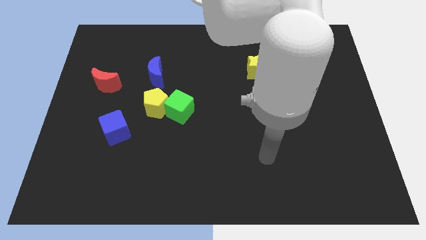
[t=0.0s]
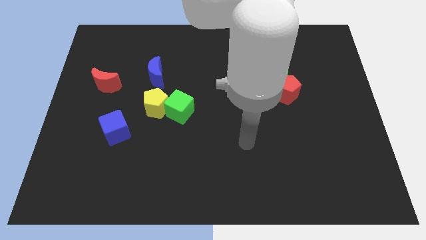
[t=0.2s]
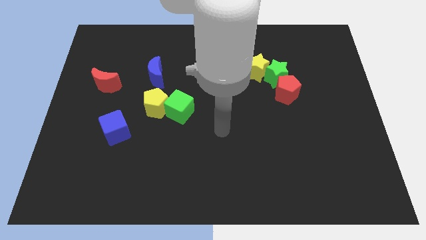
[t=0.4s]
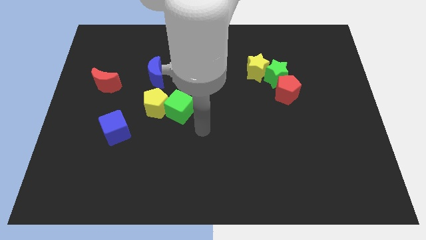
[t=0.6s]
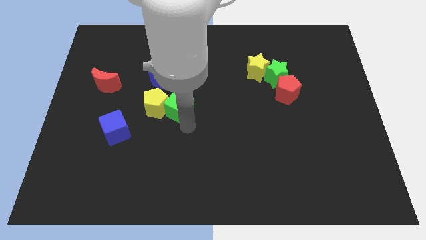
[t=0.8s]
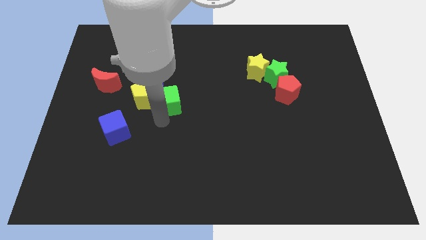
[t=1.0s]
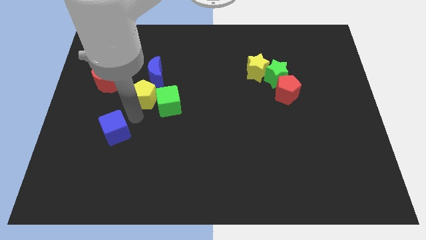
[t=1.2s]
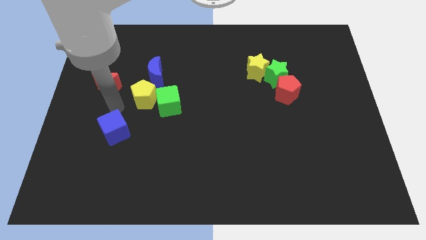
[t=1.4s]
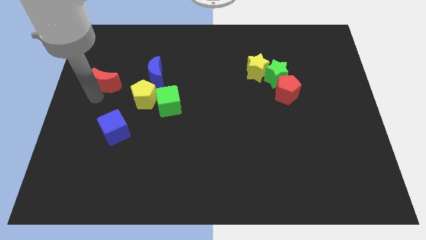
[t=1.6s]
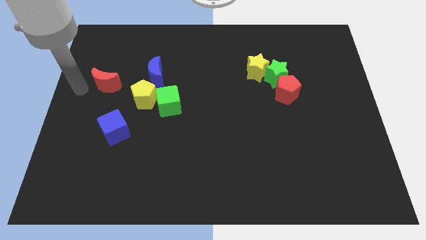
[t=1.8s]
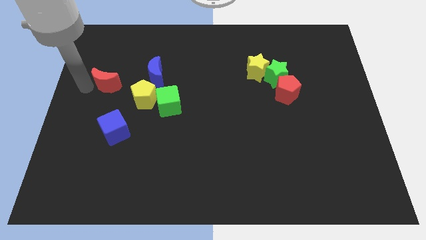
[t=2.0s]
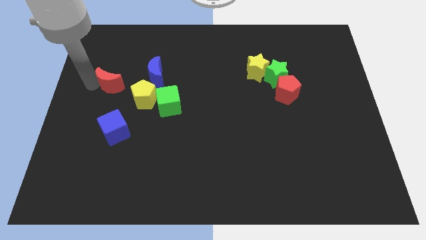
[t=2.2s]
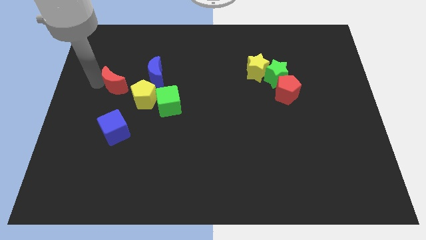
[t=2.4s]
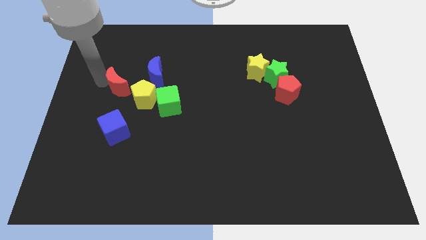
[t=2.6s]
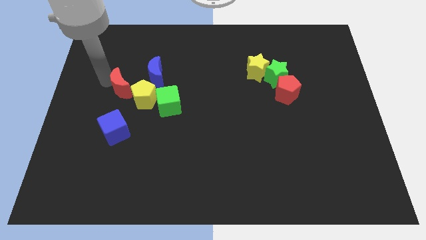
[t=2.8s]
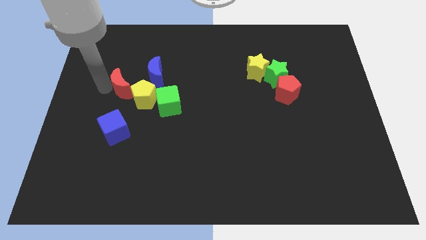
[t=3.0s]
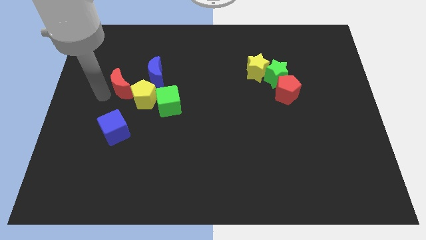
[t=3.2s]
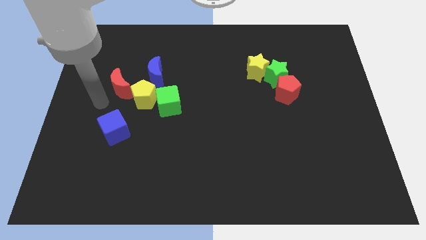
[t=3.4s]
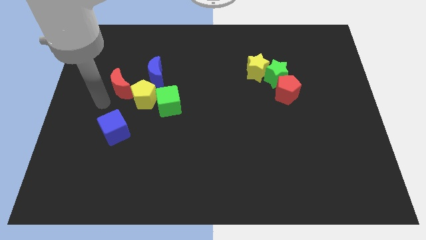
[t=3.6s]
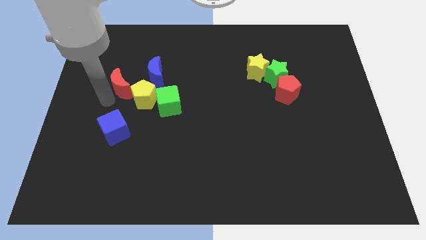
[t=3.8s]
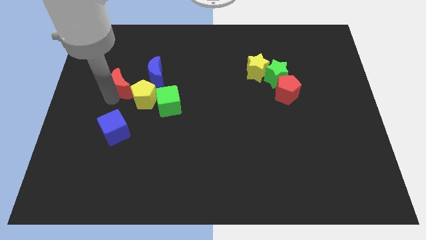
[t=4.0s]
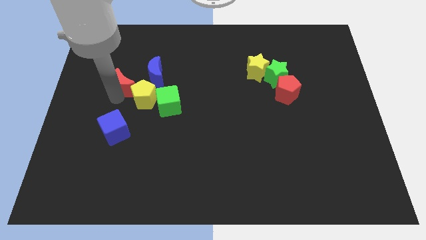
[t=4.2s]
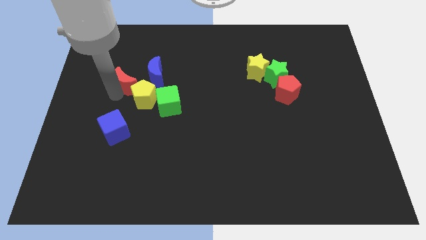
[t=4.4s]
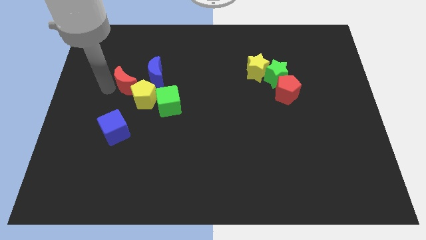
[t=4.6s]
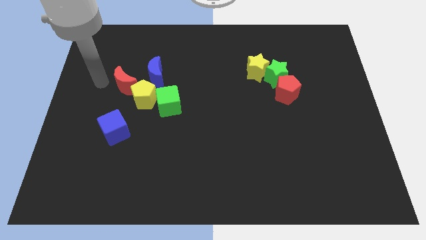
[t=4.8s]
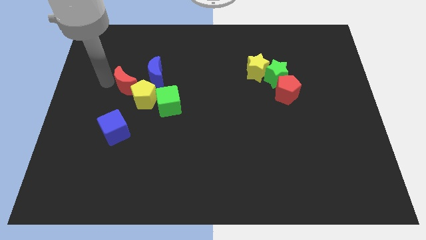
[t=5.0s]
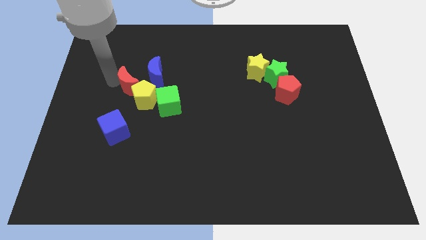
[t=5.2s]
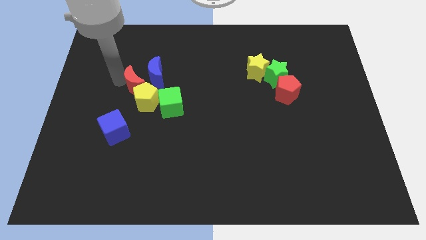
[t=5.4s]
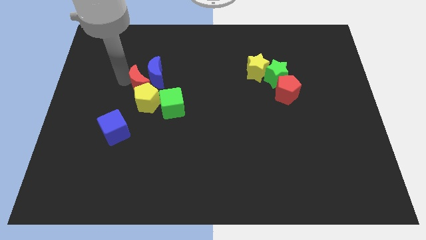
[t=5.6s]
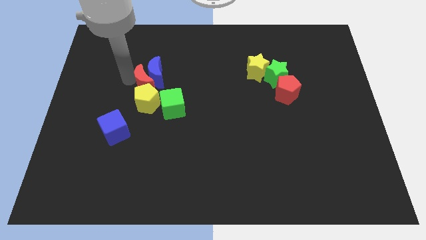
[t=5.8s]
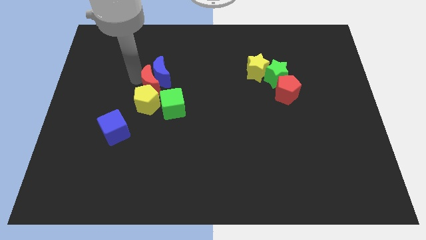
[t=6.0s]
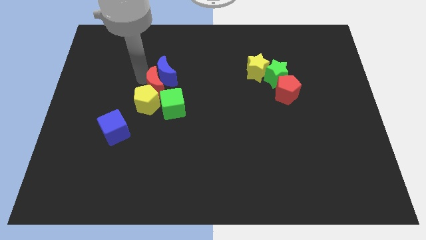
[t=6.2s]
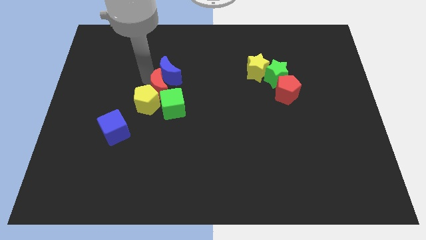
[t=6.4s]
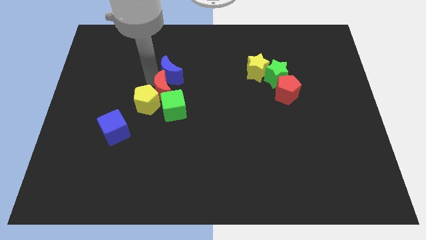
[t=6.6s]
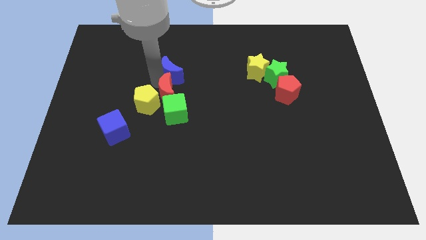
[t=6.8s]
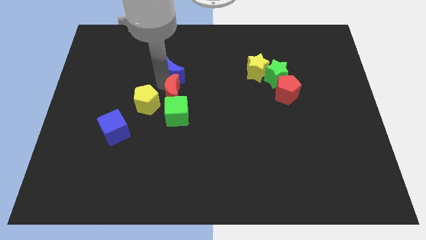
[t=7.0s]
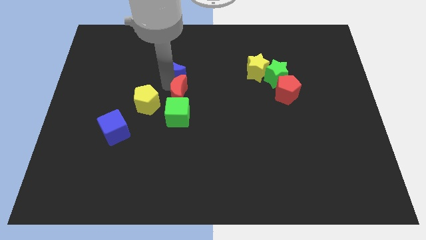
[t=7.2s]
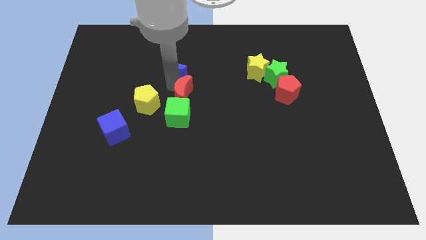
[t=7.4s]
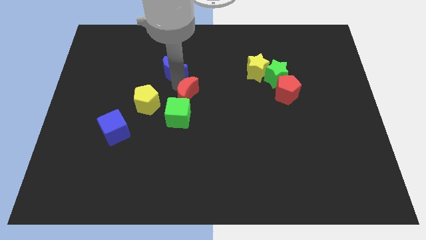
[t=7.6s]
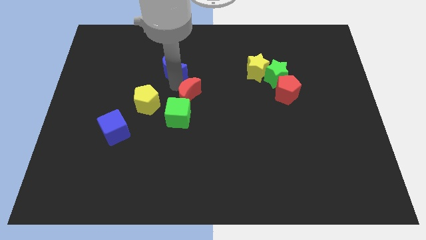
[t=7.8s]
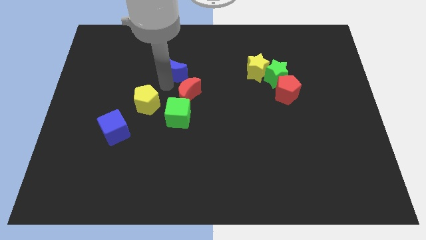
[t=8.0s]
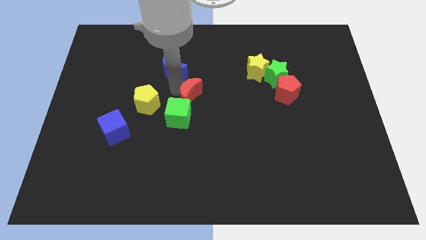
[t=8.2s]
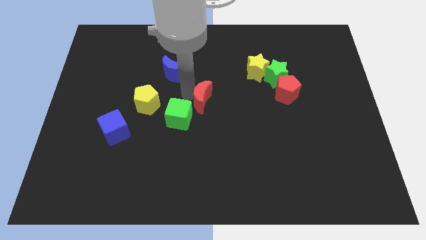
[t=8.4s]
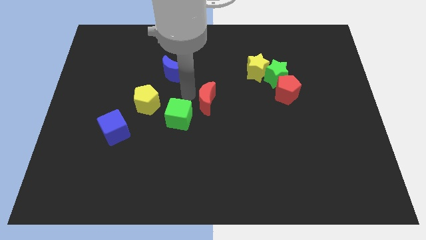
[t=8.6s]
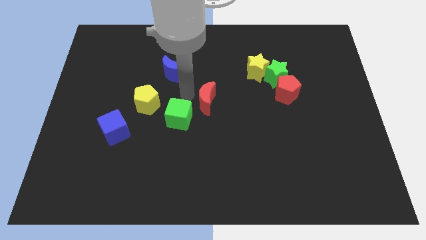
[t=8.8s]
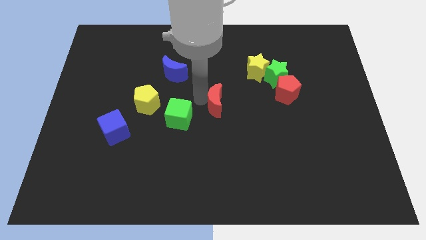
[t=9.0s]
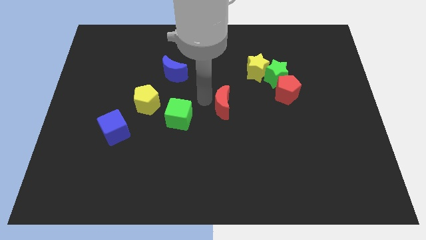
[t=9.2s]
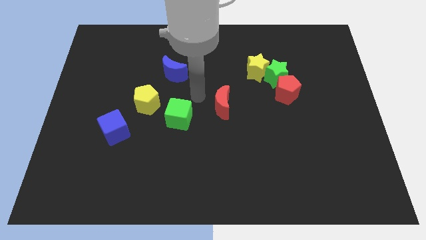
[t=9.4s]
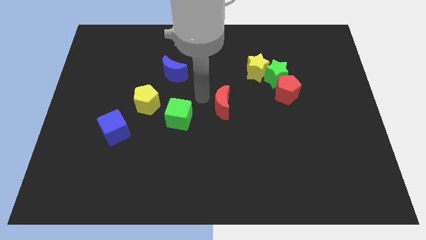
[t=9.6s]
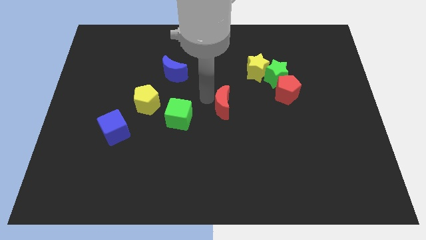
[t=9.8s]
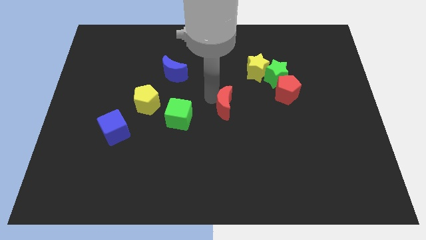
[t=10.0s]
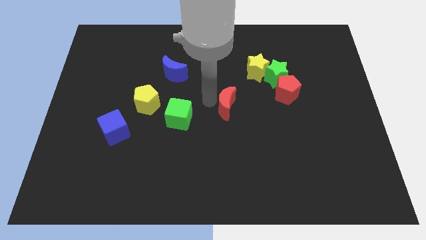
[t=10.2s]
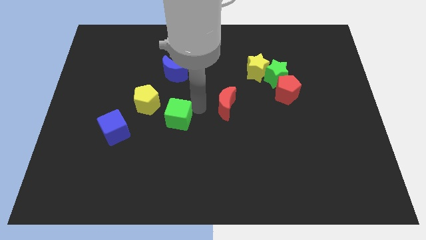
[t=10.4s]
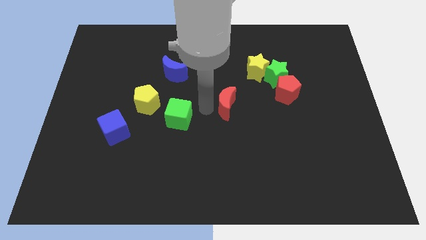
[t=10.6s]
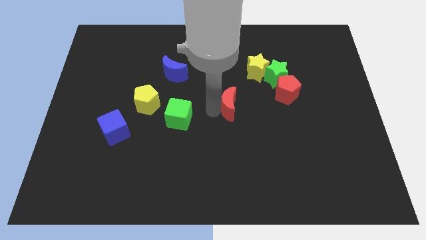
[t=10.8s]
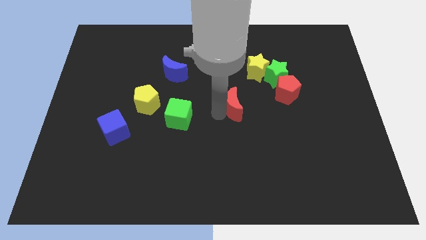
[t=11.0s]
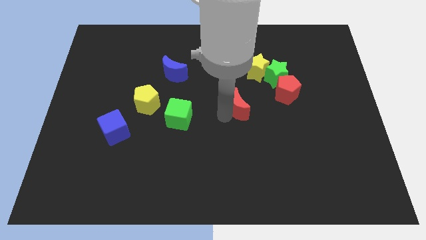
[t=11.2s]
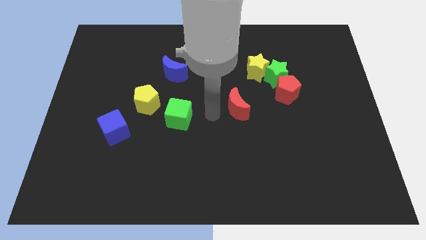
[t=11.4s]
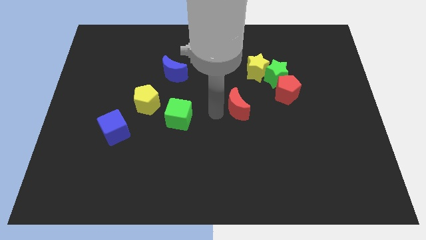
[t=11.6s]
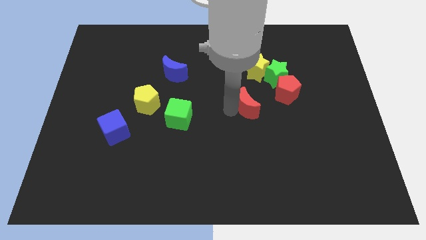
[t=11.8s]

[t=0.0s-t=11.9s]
slide the red moon to the bottom side of the yellow star

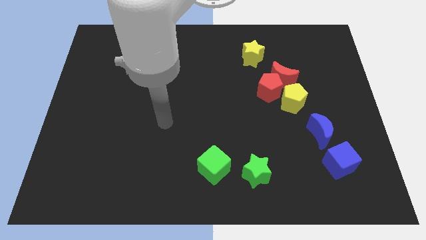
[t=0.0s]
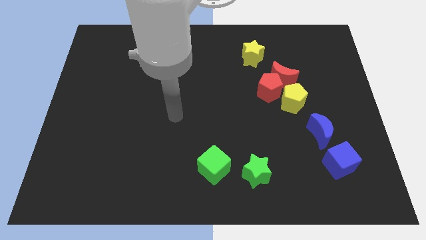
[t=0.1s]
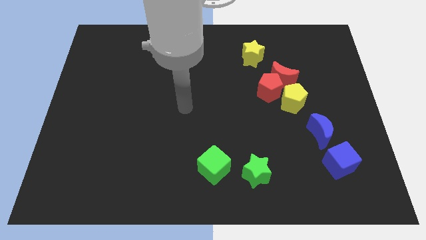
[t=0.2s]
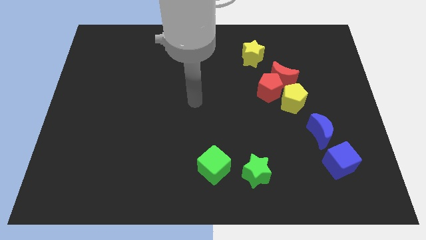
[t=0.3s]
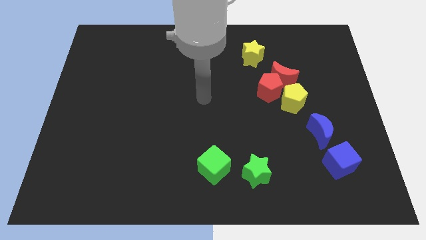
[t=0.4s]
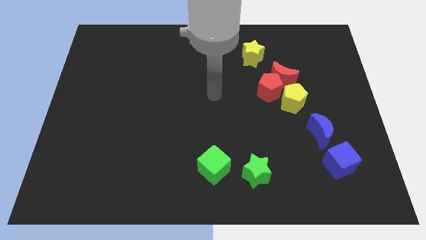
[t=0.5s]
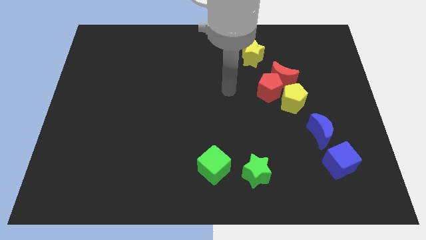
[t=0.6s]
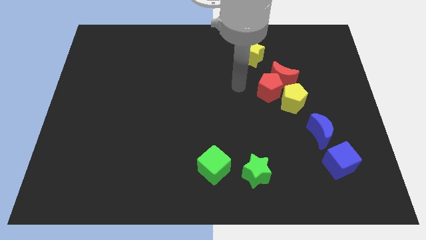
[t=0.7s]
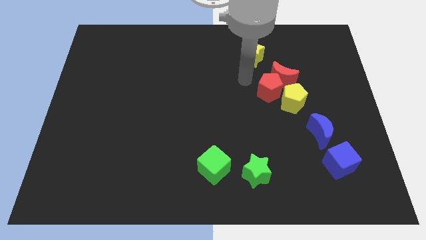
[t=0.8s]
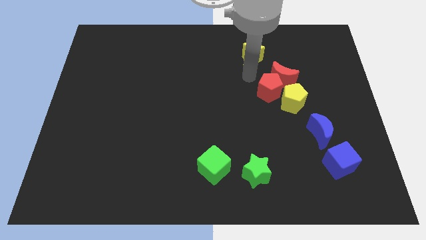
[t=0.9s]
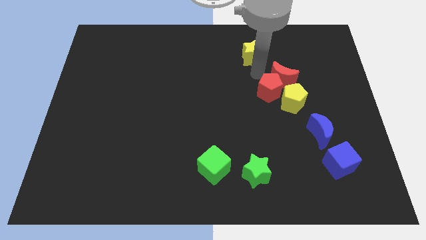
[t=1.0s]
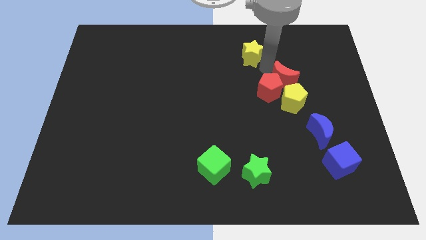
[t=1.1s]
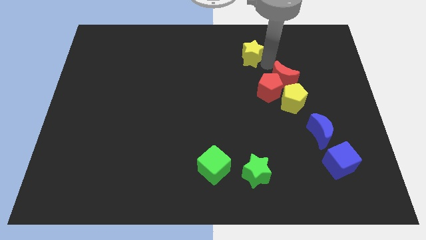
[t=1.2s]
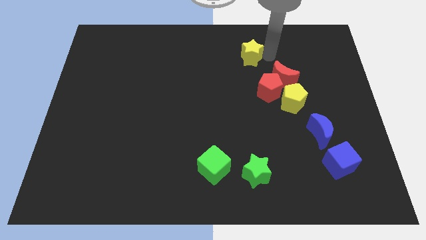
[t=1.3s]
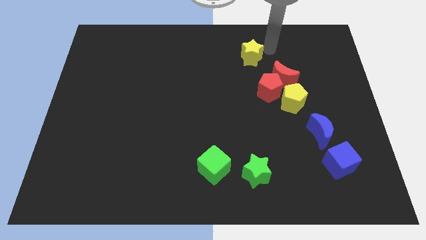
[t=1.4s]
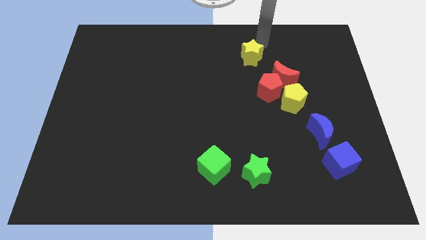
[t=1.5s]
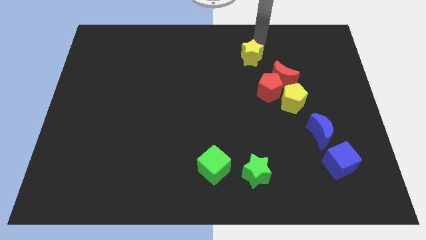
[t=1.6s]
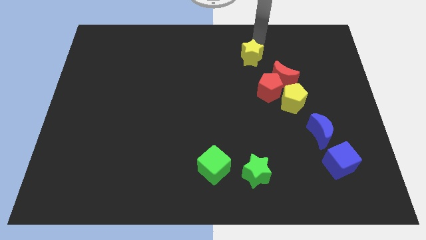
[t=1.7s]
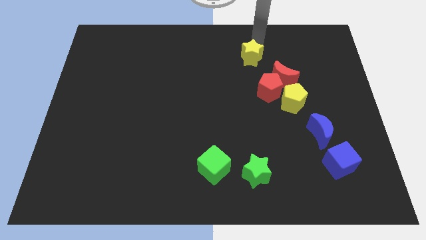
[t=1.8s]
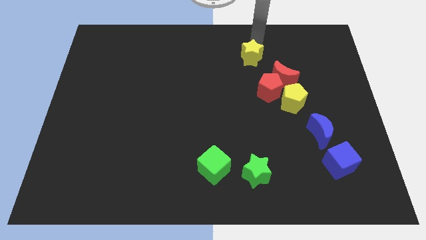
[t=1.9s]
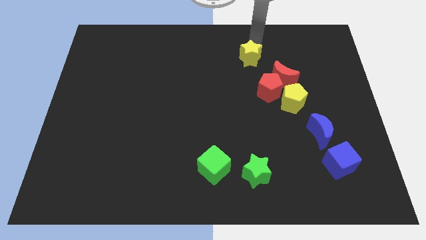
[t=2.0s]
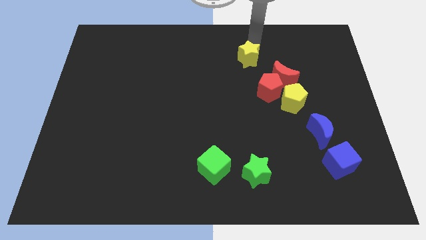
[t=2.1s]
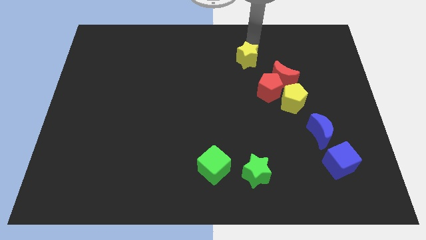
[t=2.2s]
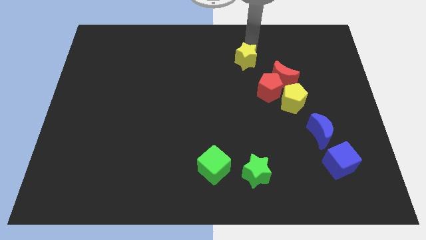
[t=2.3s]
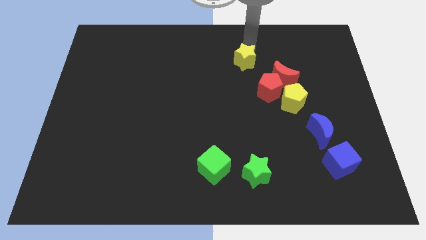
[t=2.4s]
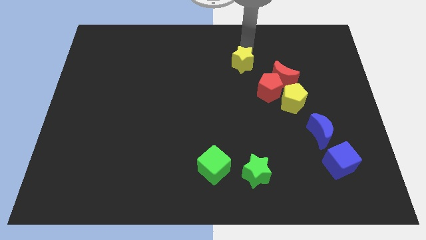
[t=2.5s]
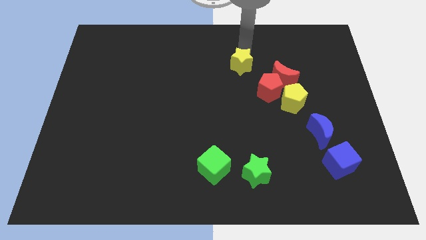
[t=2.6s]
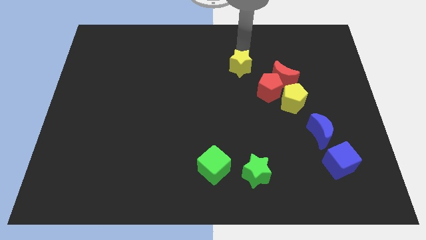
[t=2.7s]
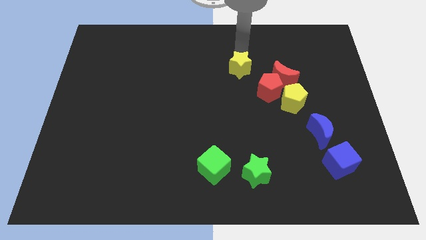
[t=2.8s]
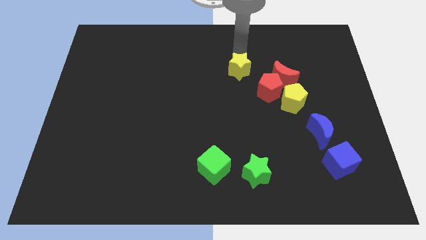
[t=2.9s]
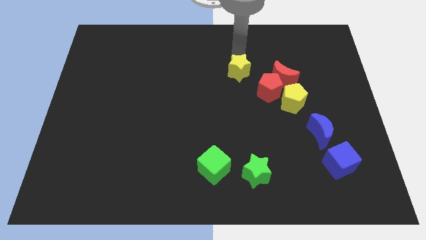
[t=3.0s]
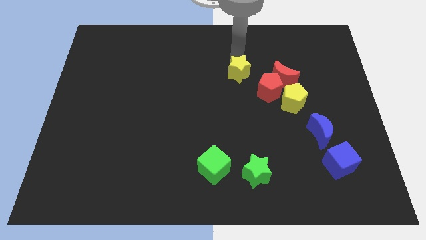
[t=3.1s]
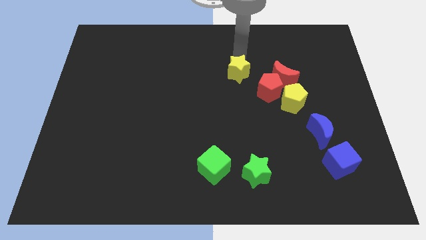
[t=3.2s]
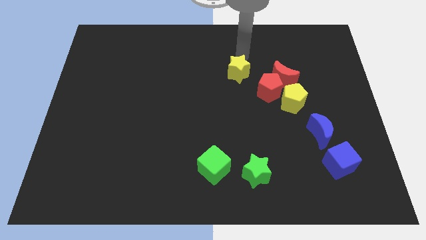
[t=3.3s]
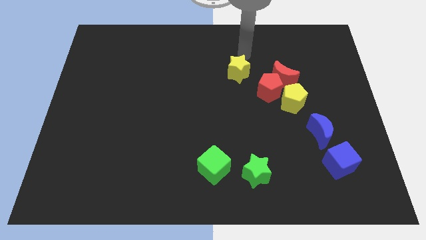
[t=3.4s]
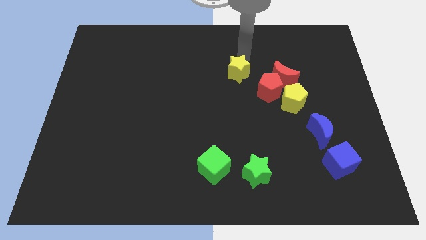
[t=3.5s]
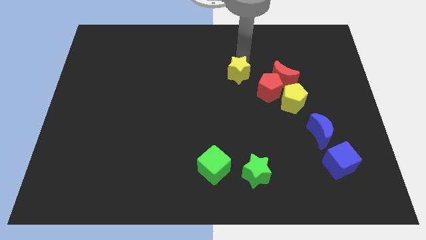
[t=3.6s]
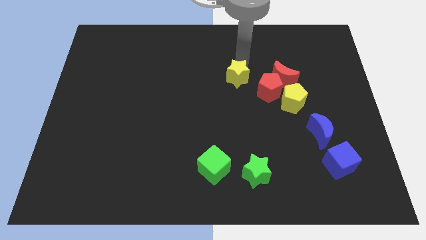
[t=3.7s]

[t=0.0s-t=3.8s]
slide the yellow star to the left side of the red pentagon
